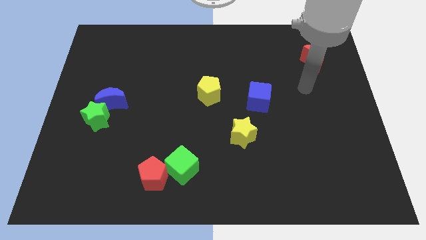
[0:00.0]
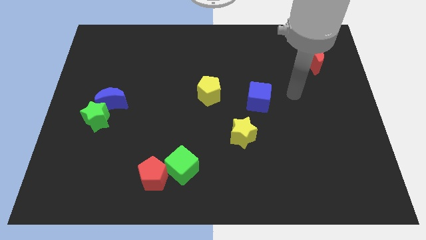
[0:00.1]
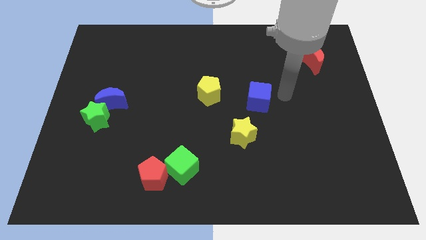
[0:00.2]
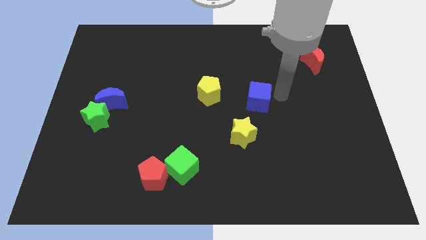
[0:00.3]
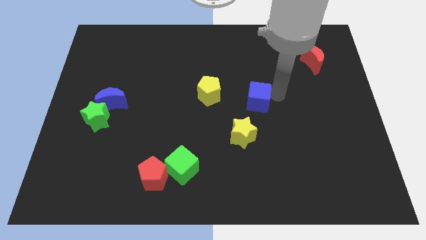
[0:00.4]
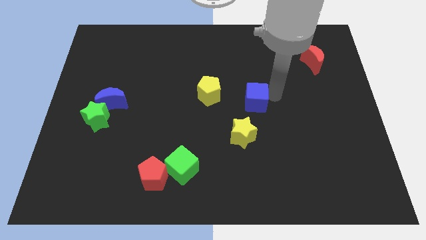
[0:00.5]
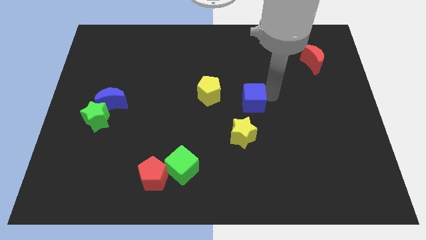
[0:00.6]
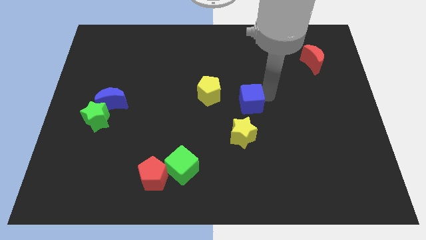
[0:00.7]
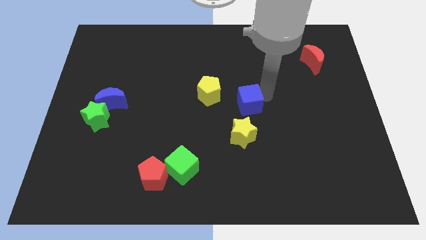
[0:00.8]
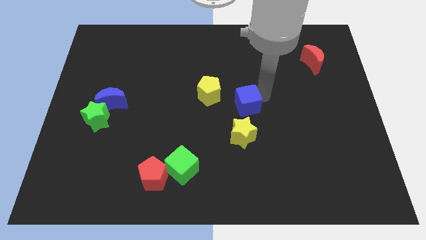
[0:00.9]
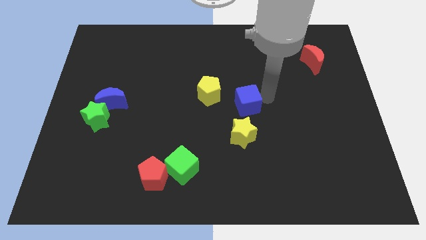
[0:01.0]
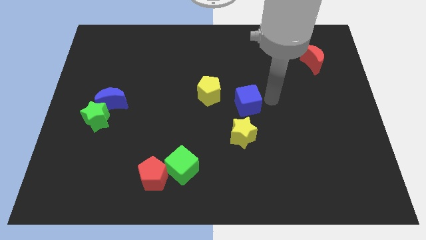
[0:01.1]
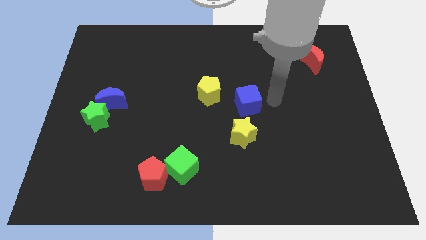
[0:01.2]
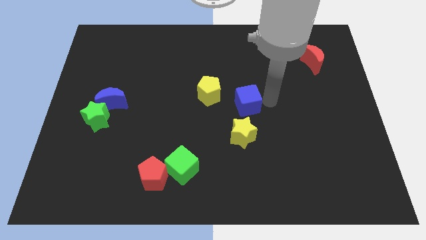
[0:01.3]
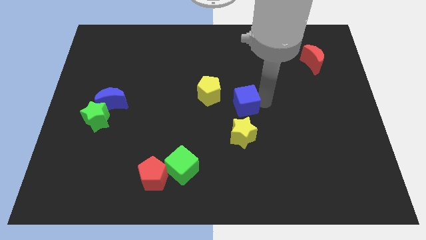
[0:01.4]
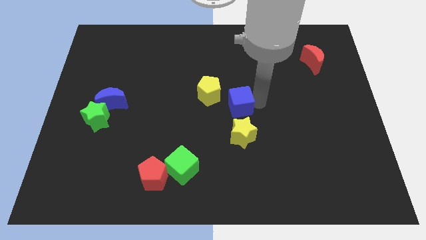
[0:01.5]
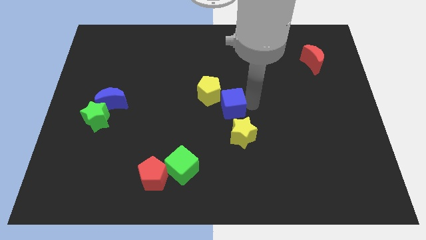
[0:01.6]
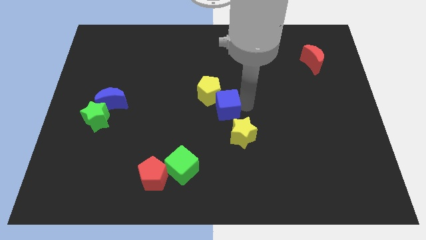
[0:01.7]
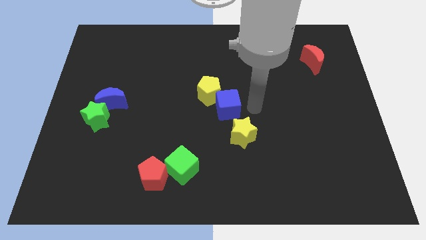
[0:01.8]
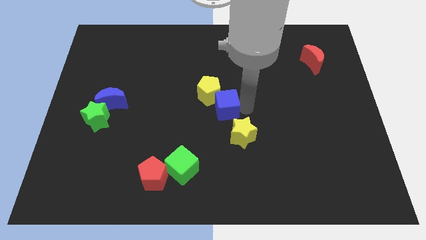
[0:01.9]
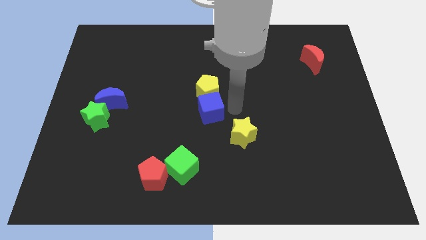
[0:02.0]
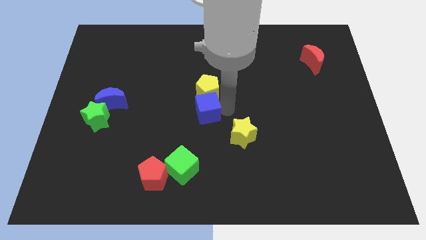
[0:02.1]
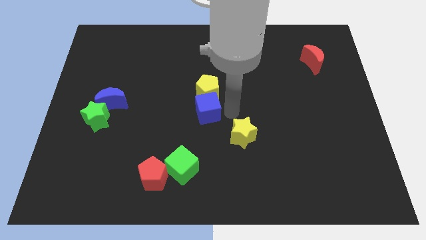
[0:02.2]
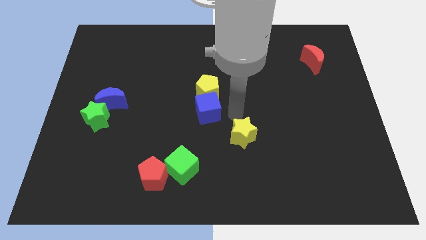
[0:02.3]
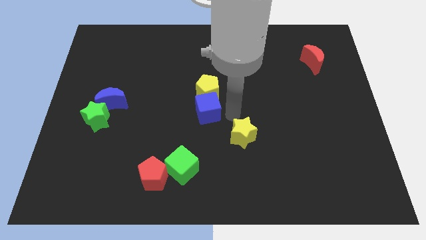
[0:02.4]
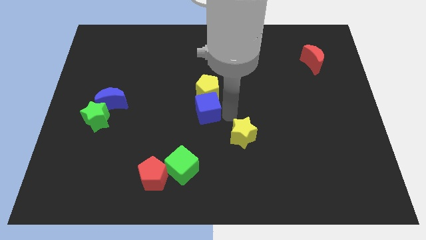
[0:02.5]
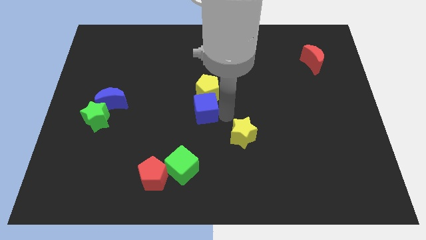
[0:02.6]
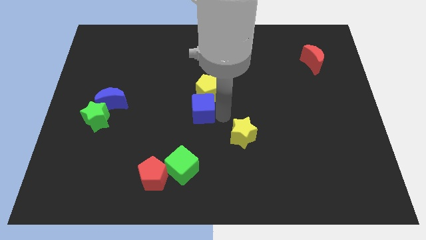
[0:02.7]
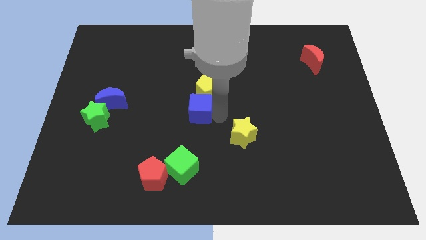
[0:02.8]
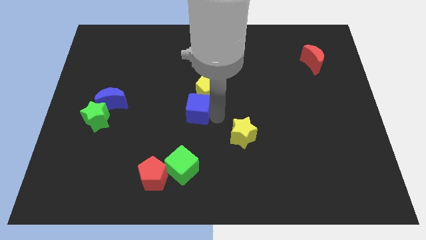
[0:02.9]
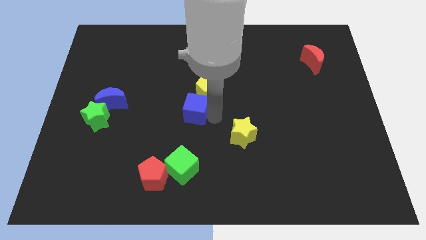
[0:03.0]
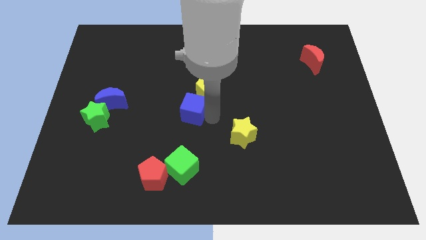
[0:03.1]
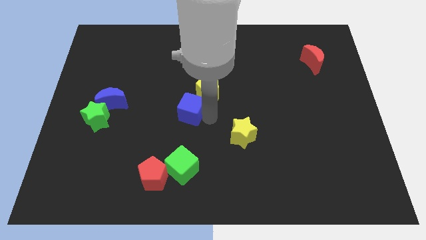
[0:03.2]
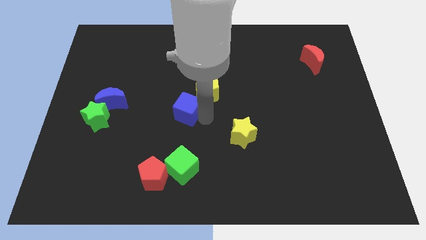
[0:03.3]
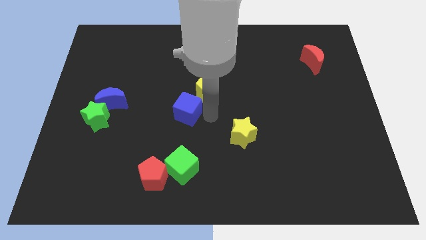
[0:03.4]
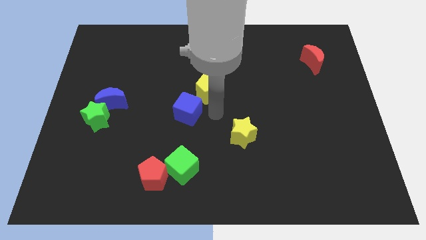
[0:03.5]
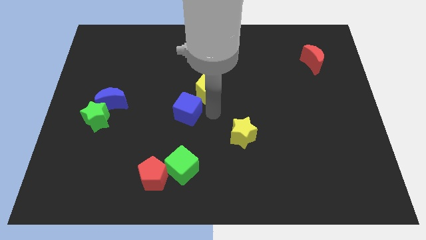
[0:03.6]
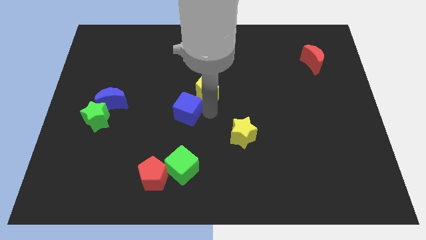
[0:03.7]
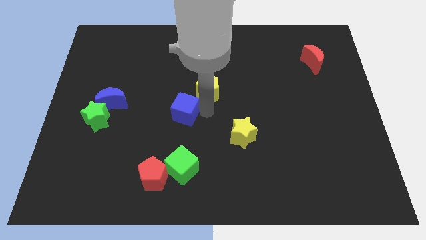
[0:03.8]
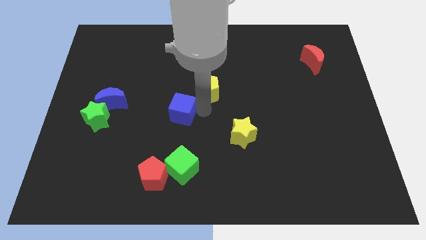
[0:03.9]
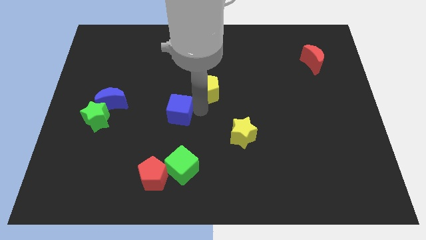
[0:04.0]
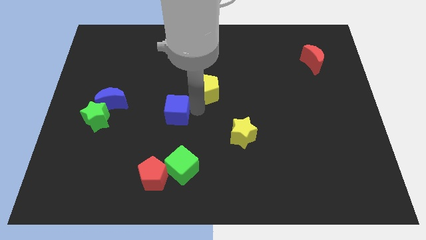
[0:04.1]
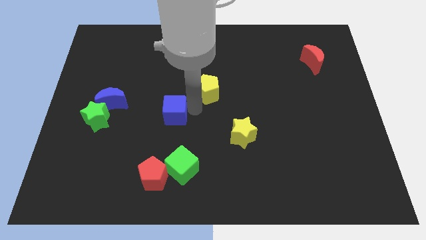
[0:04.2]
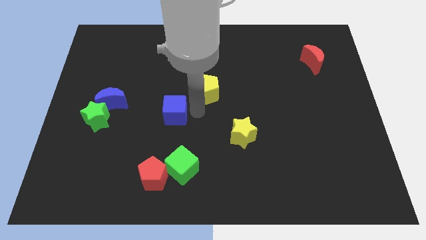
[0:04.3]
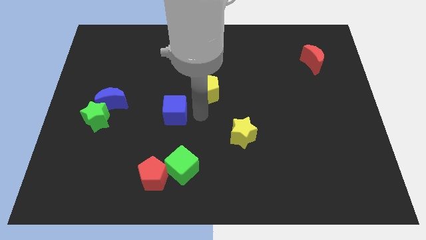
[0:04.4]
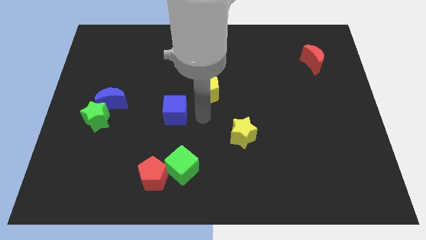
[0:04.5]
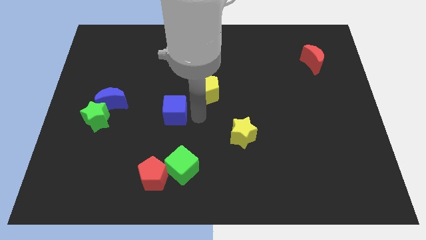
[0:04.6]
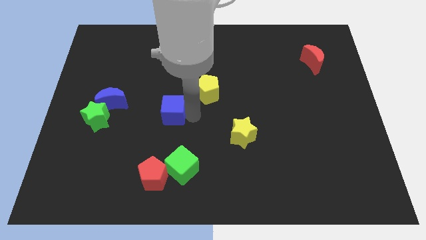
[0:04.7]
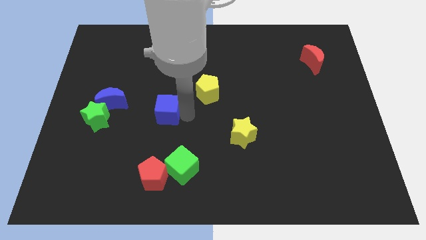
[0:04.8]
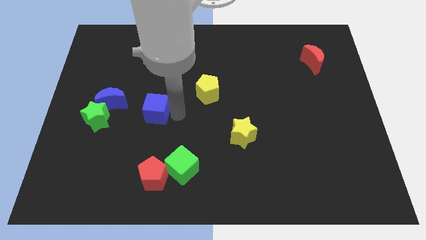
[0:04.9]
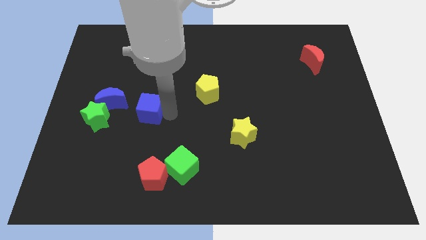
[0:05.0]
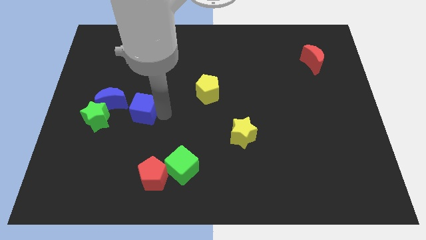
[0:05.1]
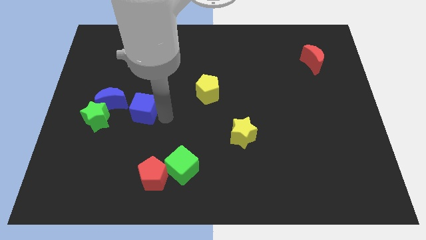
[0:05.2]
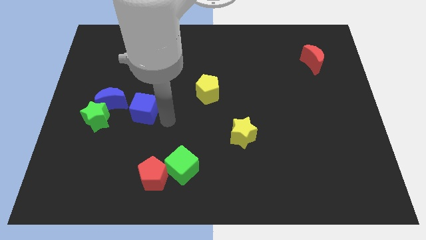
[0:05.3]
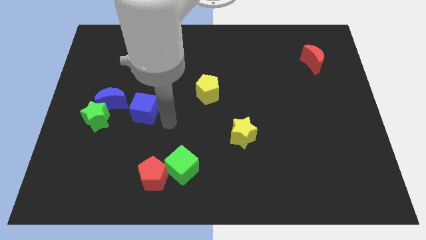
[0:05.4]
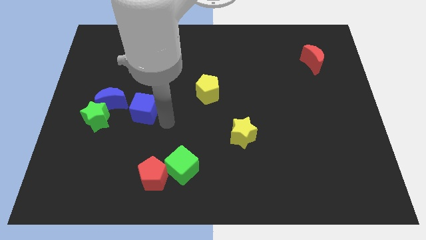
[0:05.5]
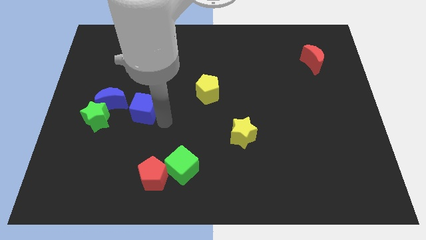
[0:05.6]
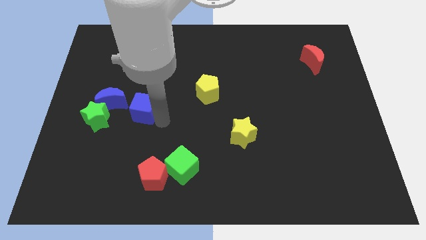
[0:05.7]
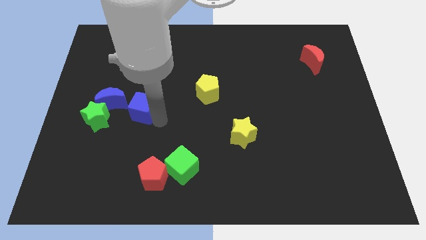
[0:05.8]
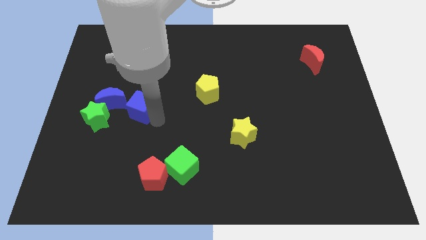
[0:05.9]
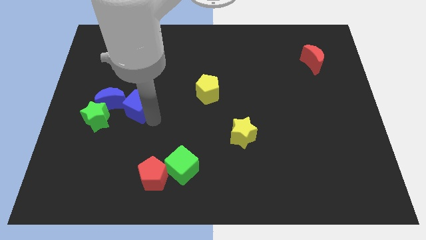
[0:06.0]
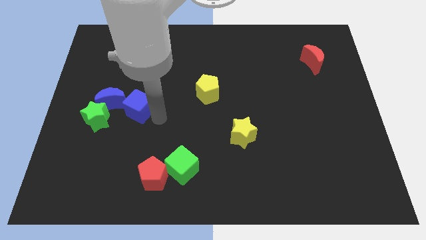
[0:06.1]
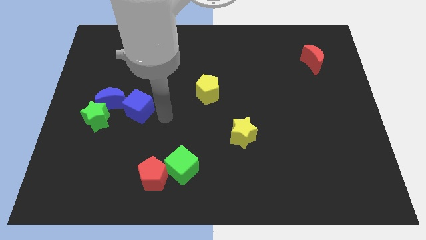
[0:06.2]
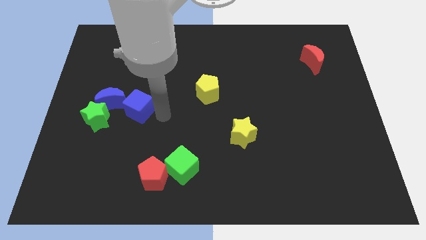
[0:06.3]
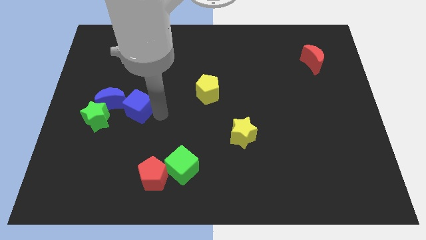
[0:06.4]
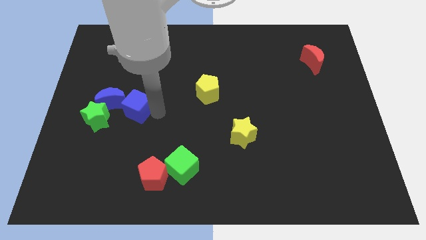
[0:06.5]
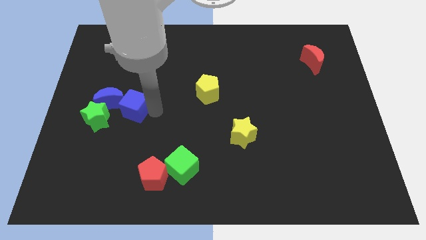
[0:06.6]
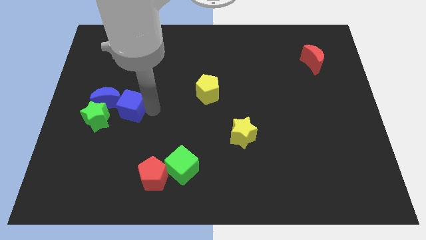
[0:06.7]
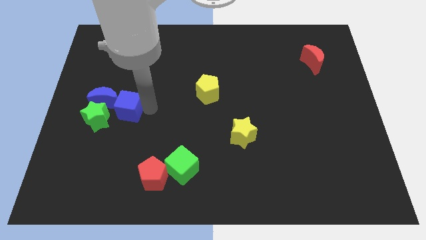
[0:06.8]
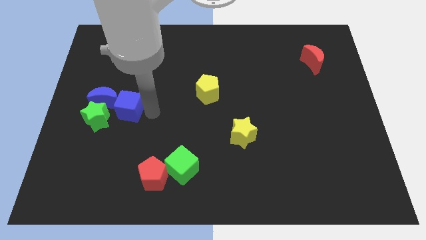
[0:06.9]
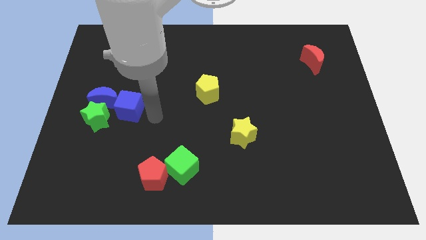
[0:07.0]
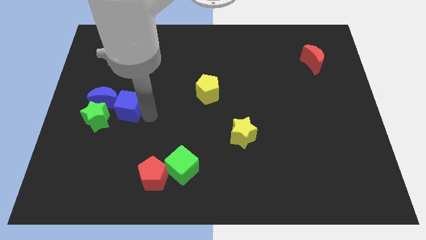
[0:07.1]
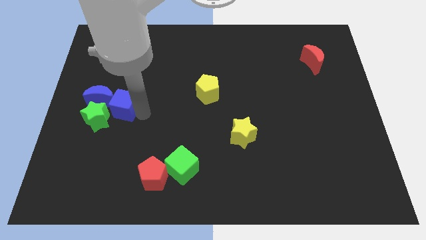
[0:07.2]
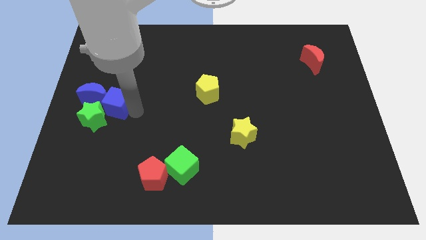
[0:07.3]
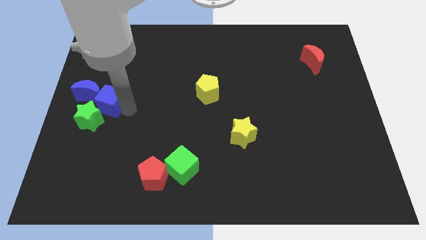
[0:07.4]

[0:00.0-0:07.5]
slide the blue cube to the blue moon
